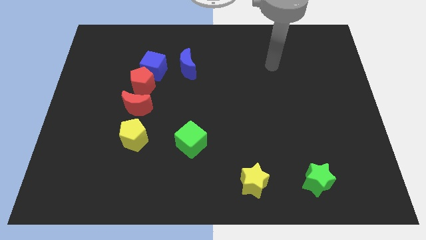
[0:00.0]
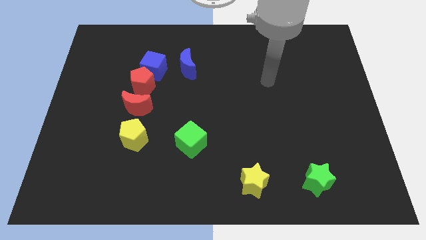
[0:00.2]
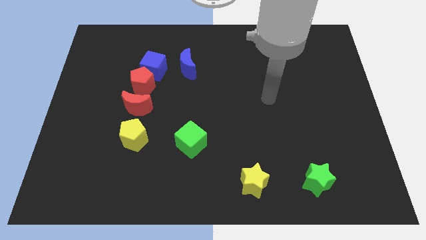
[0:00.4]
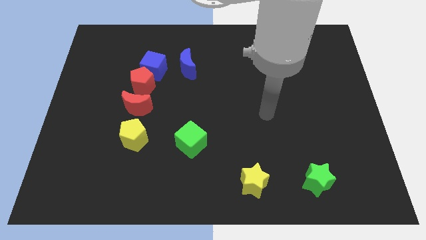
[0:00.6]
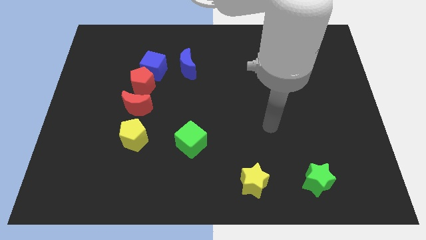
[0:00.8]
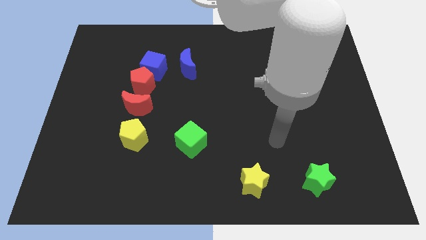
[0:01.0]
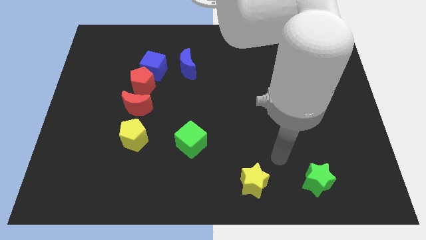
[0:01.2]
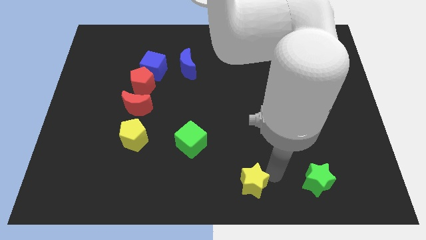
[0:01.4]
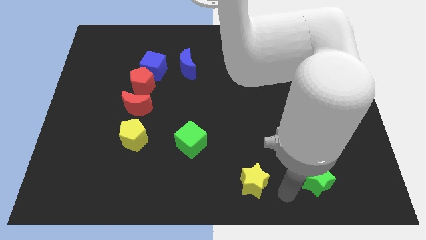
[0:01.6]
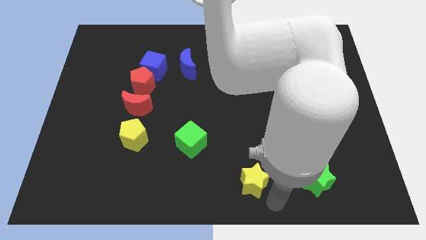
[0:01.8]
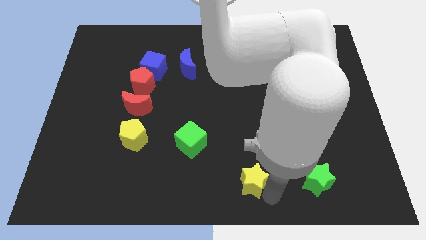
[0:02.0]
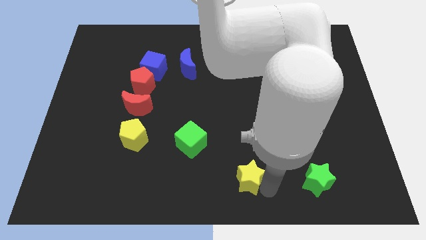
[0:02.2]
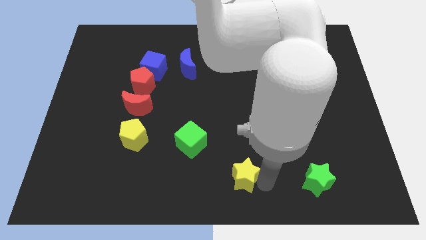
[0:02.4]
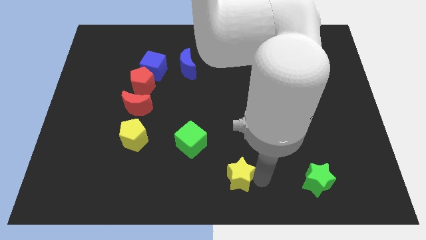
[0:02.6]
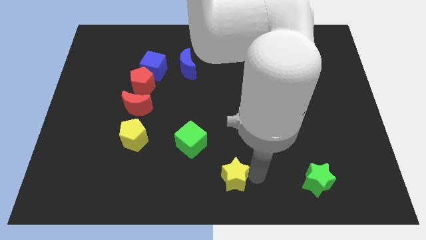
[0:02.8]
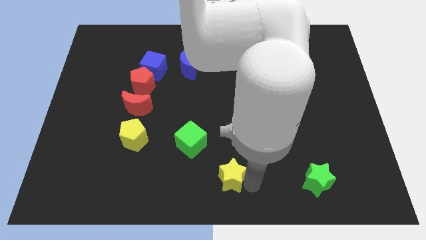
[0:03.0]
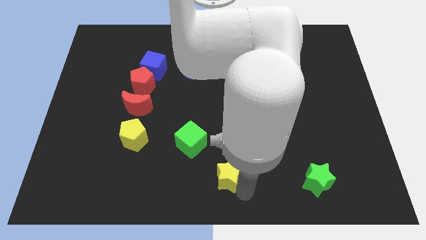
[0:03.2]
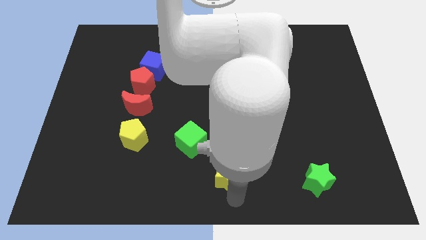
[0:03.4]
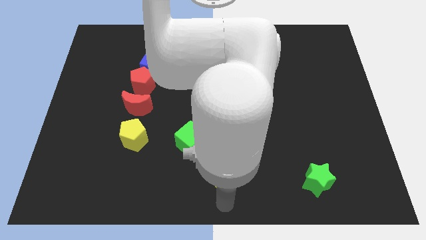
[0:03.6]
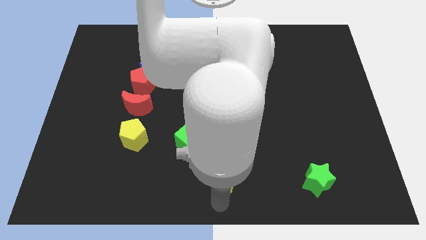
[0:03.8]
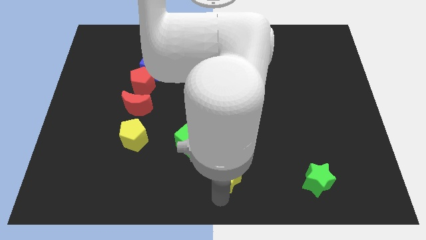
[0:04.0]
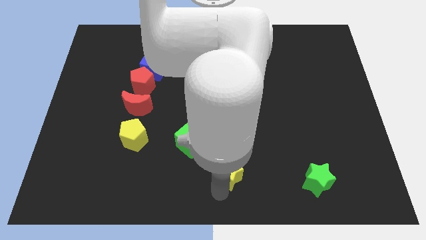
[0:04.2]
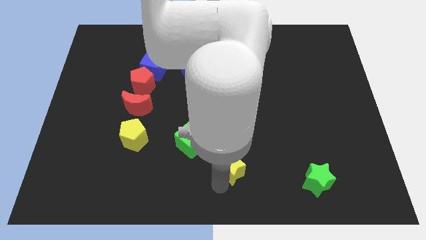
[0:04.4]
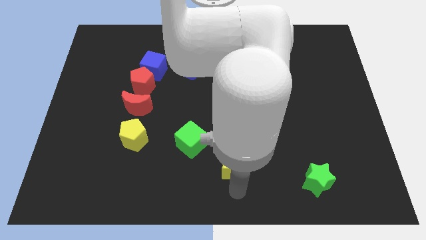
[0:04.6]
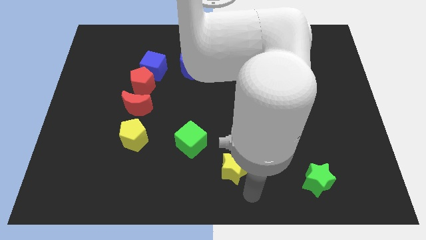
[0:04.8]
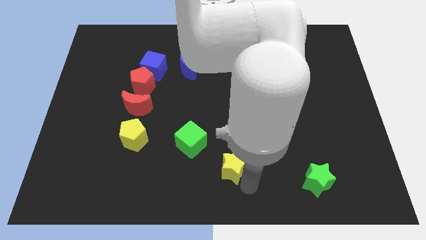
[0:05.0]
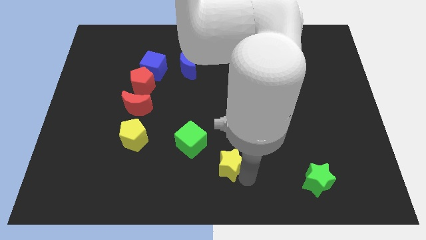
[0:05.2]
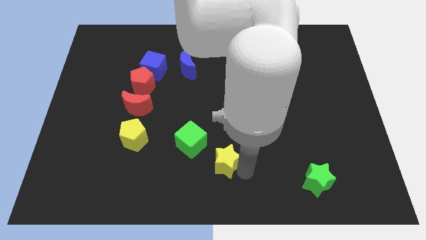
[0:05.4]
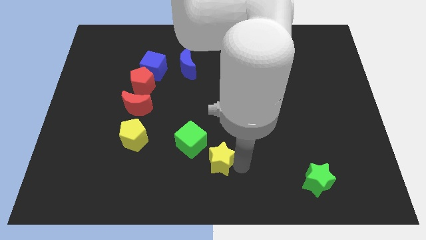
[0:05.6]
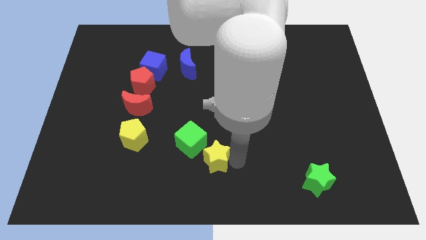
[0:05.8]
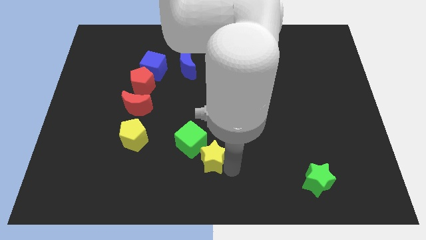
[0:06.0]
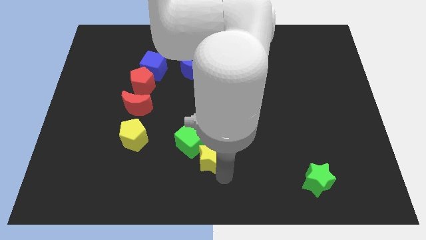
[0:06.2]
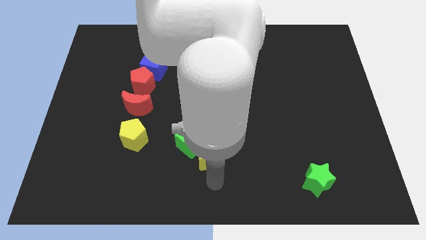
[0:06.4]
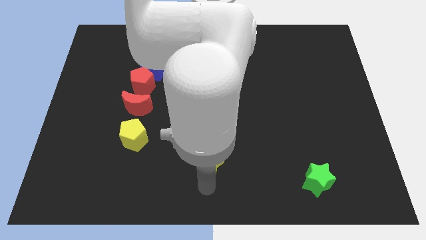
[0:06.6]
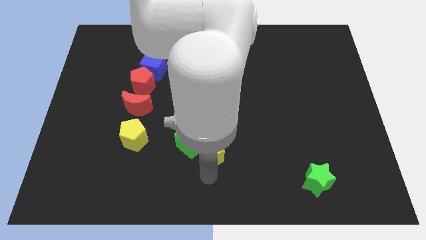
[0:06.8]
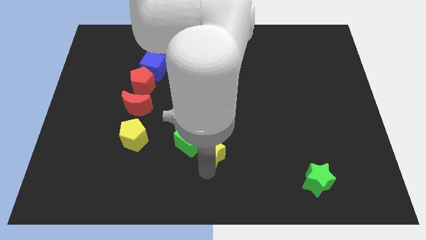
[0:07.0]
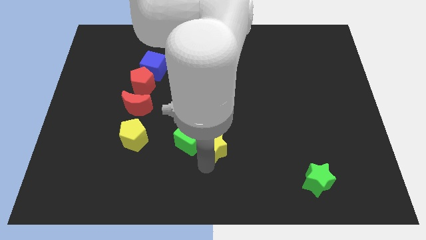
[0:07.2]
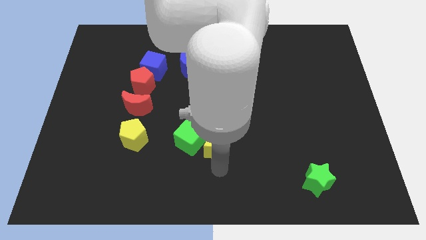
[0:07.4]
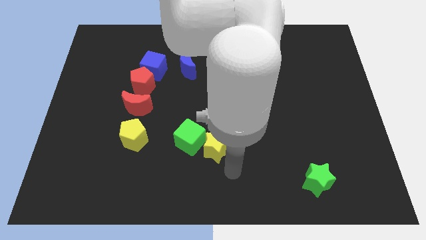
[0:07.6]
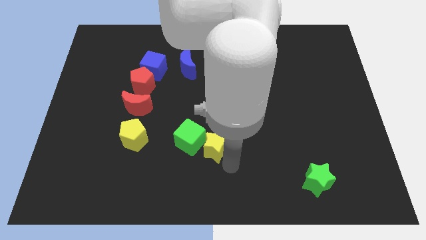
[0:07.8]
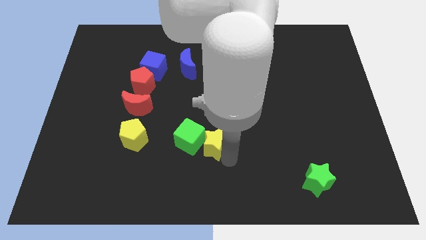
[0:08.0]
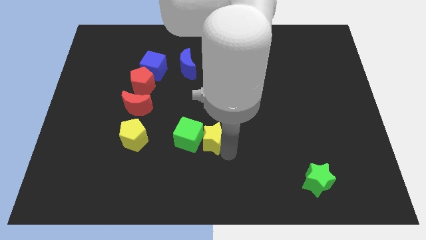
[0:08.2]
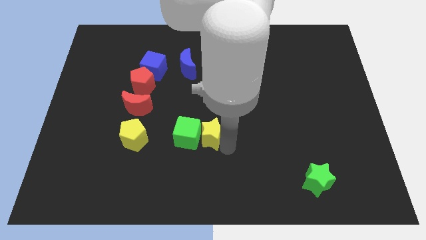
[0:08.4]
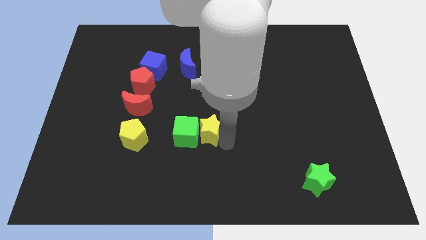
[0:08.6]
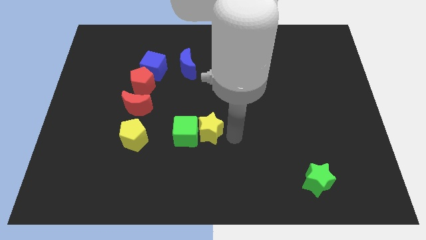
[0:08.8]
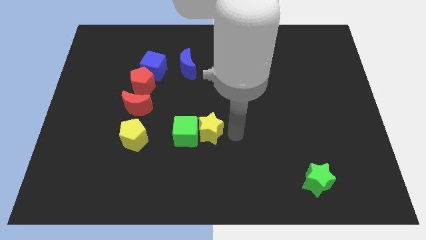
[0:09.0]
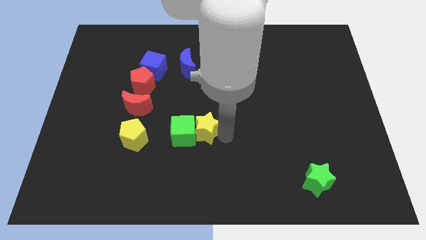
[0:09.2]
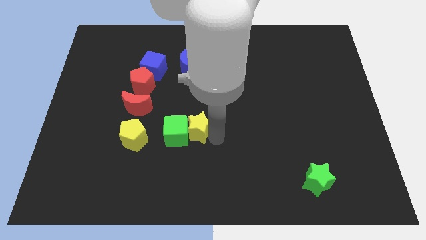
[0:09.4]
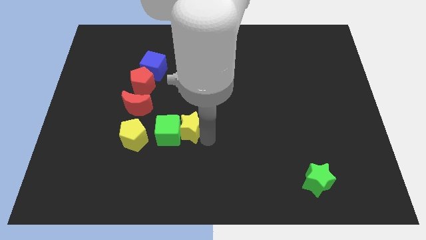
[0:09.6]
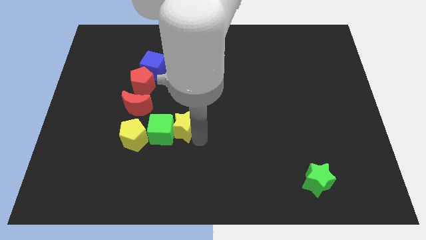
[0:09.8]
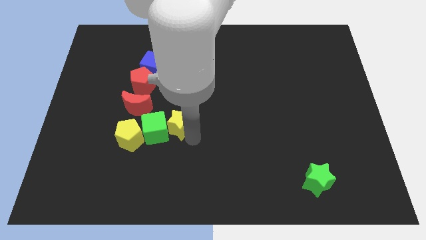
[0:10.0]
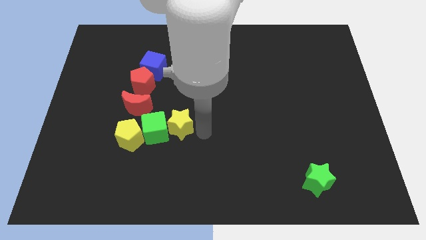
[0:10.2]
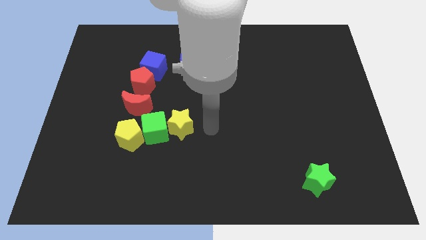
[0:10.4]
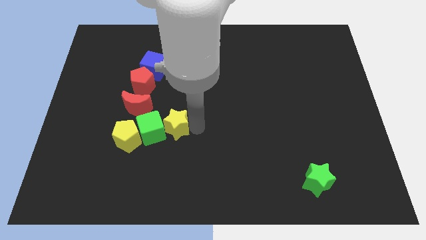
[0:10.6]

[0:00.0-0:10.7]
push the yellow star diagonally down and to the right of the red moon

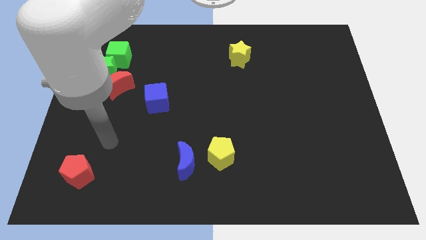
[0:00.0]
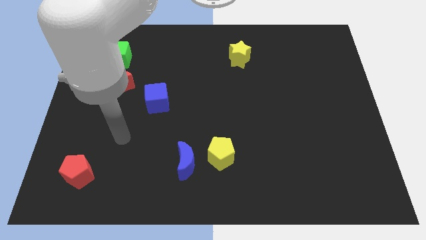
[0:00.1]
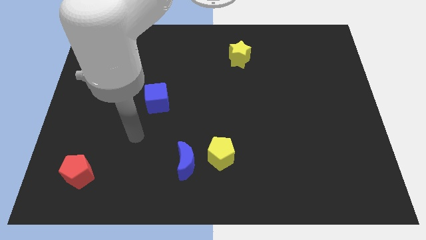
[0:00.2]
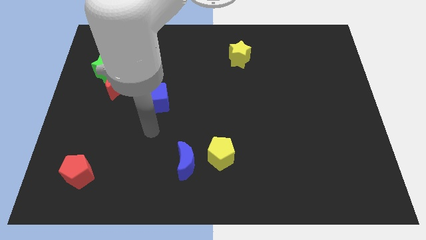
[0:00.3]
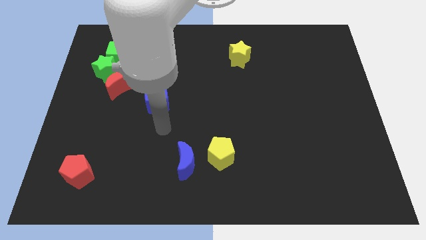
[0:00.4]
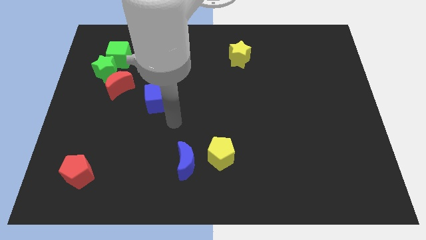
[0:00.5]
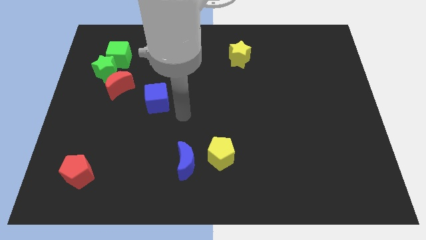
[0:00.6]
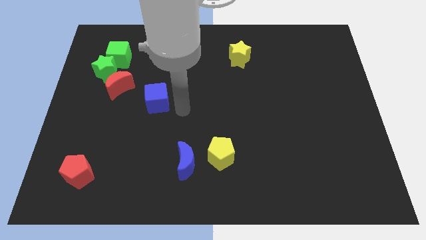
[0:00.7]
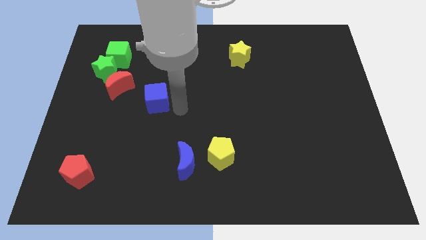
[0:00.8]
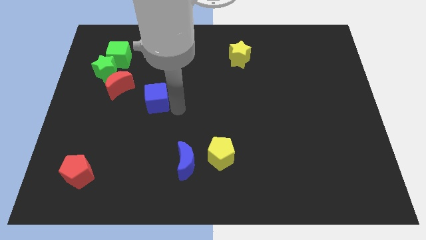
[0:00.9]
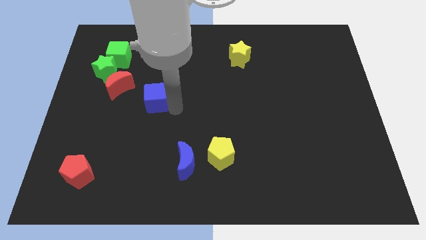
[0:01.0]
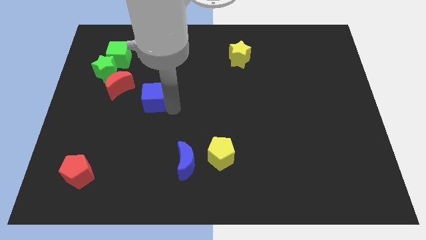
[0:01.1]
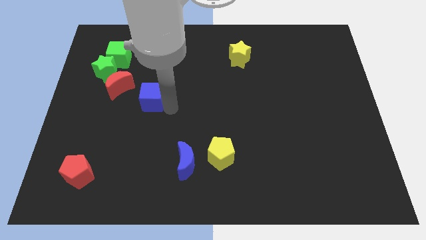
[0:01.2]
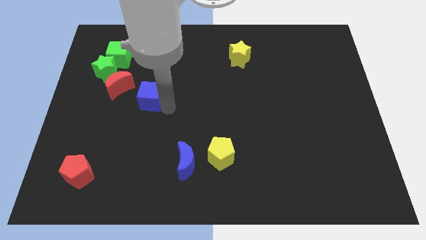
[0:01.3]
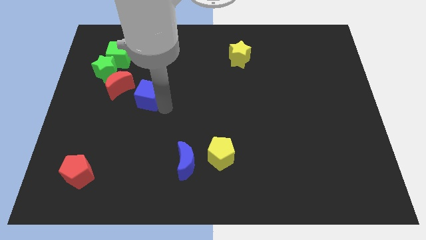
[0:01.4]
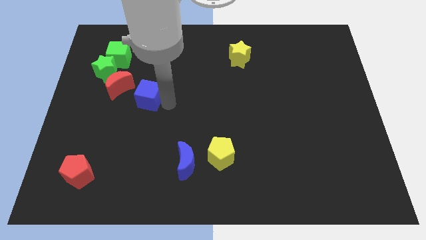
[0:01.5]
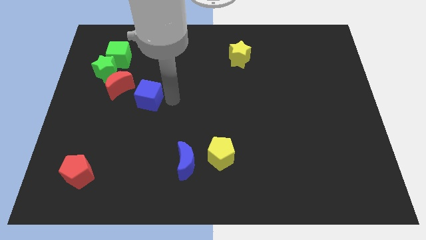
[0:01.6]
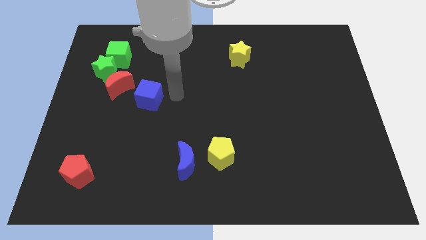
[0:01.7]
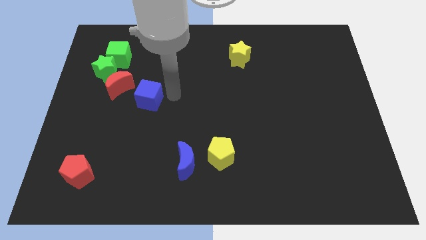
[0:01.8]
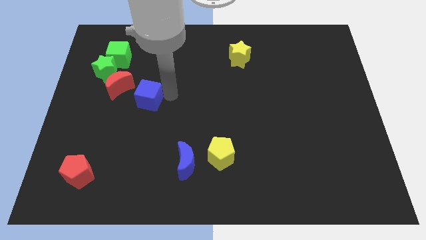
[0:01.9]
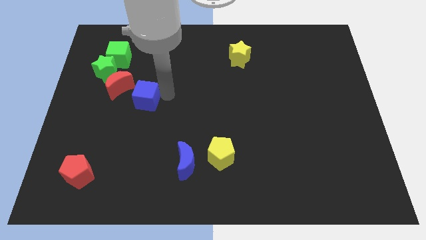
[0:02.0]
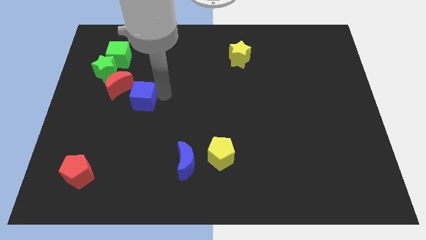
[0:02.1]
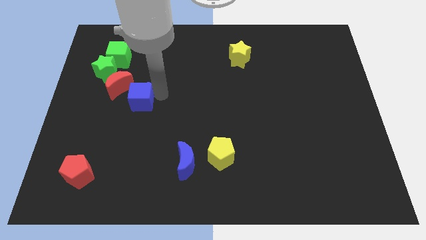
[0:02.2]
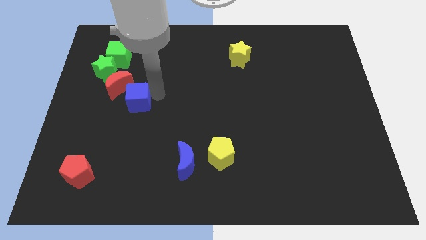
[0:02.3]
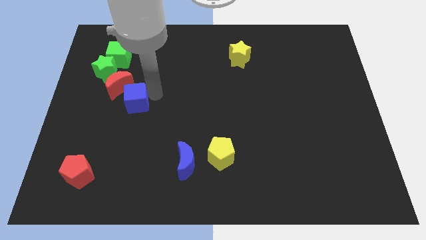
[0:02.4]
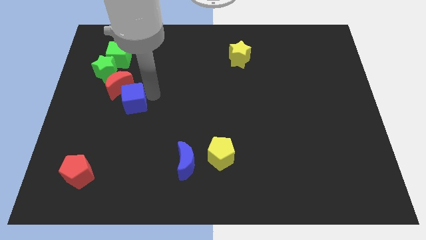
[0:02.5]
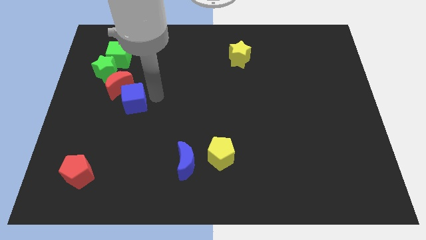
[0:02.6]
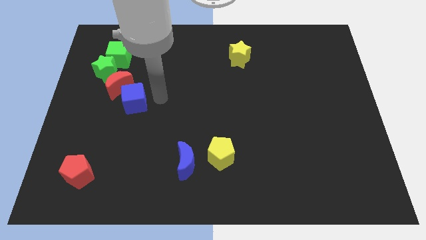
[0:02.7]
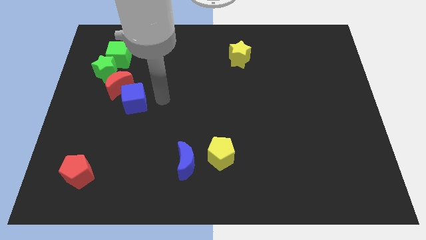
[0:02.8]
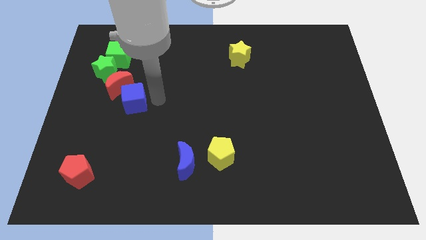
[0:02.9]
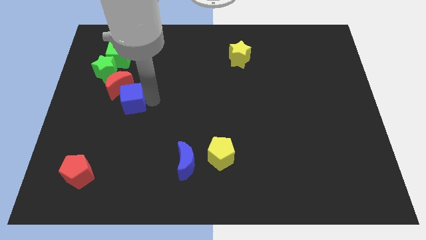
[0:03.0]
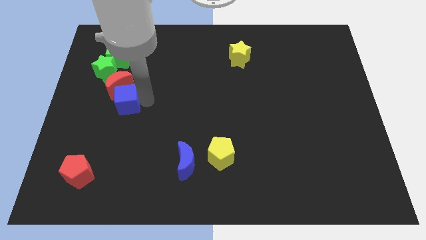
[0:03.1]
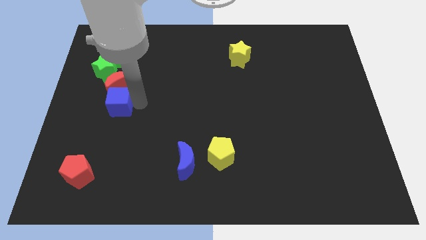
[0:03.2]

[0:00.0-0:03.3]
push the blue cube to the bottom side of the green cube
